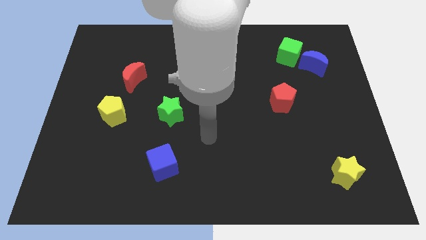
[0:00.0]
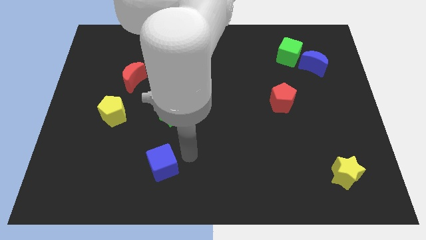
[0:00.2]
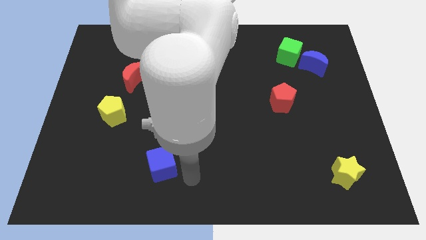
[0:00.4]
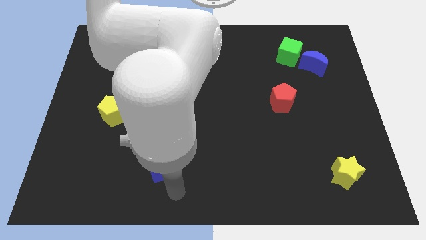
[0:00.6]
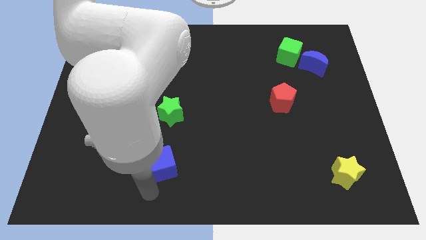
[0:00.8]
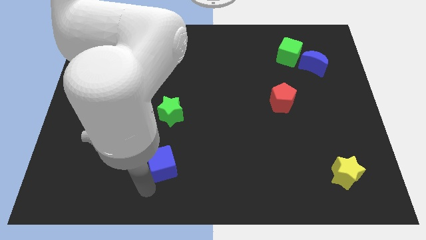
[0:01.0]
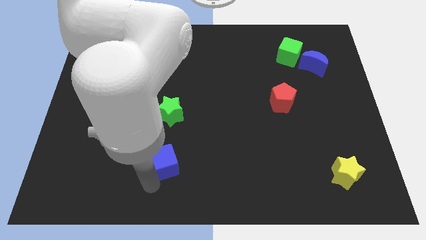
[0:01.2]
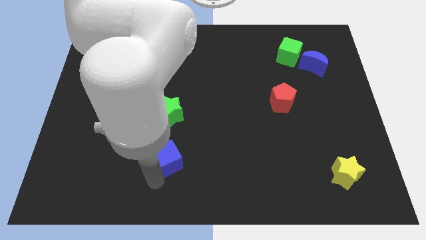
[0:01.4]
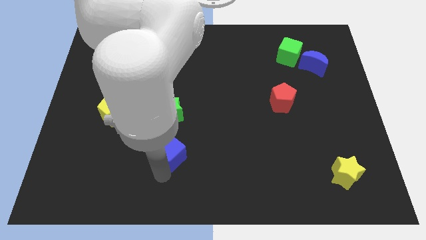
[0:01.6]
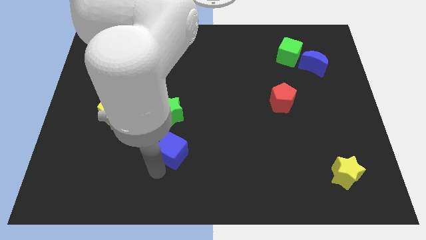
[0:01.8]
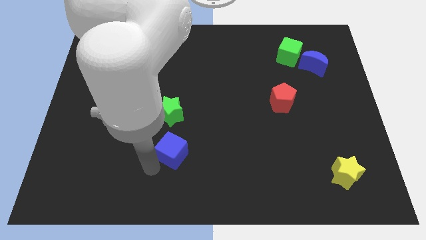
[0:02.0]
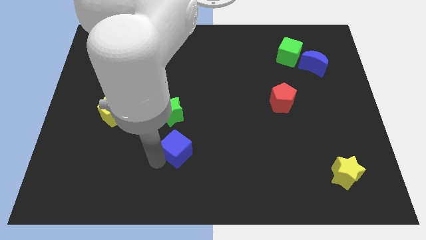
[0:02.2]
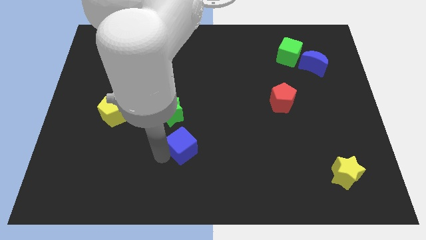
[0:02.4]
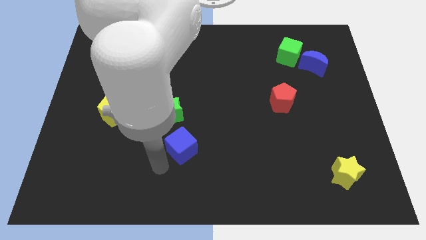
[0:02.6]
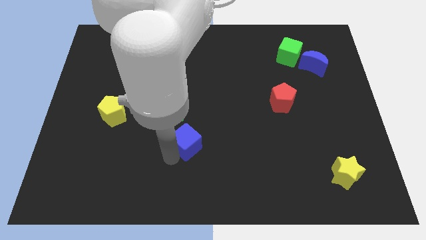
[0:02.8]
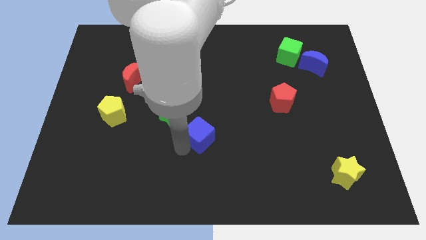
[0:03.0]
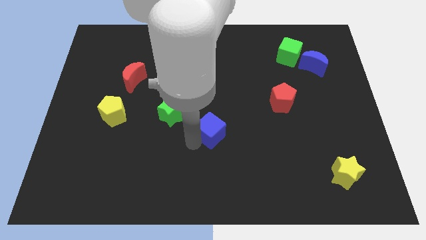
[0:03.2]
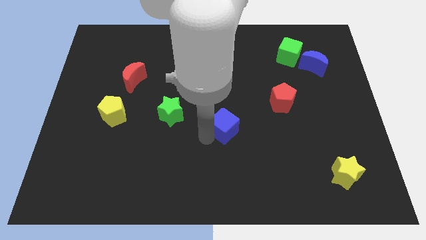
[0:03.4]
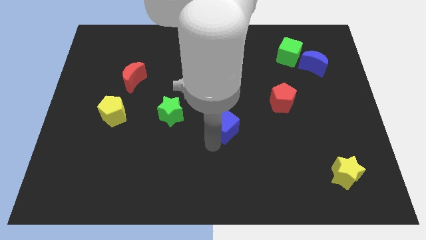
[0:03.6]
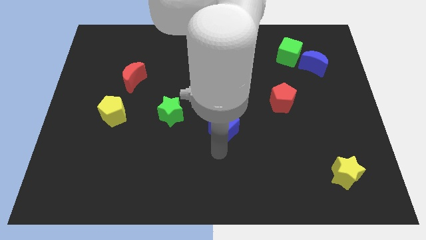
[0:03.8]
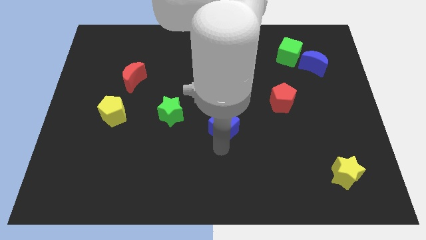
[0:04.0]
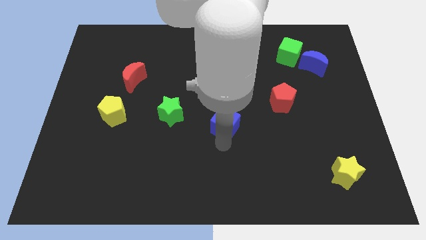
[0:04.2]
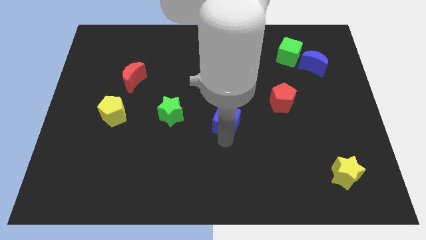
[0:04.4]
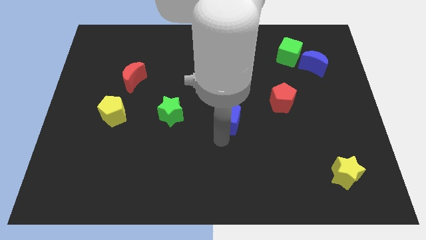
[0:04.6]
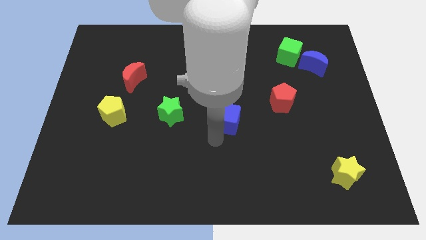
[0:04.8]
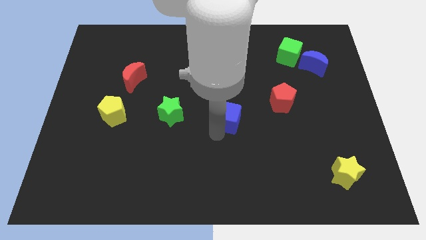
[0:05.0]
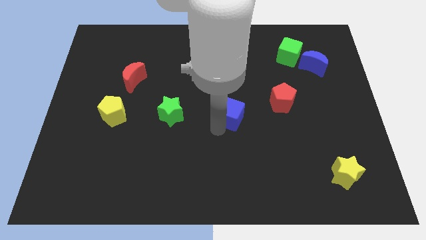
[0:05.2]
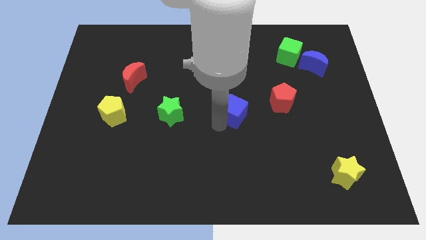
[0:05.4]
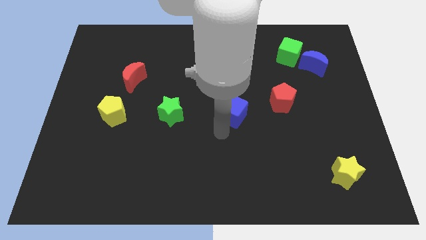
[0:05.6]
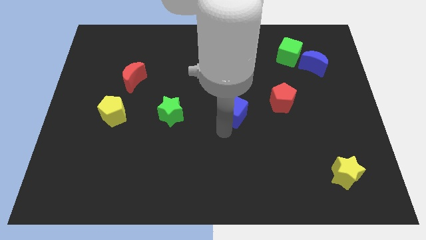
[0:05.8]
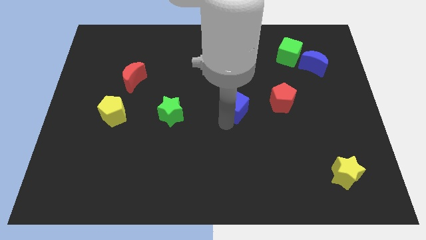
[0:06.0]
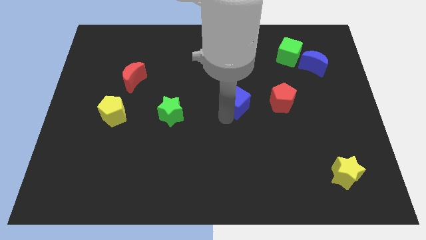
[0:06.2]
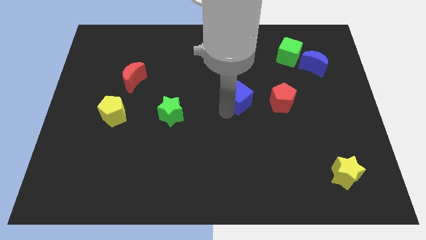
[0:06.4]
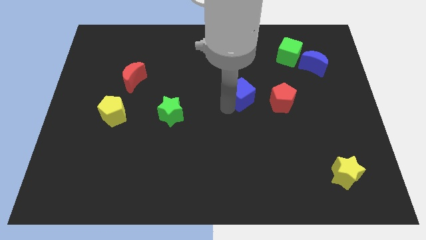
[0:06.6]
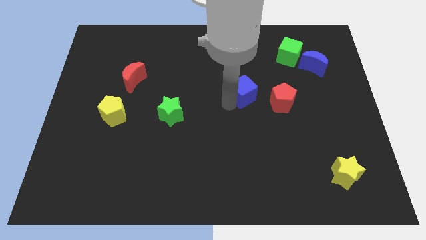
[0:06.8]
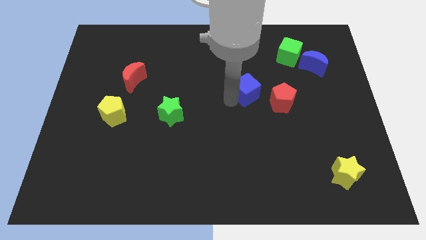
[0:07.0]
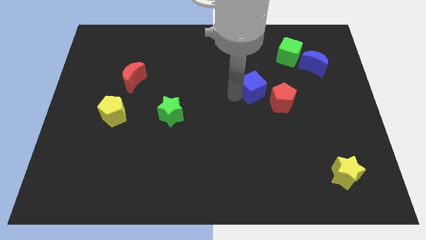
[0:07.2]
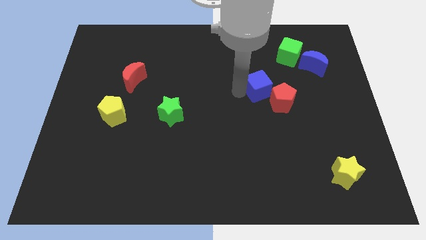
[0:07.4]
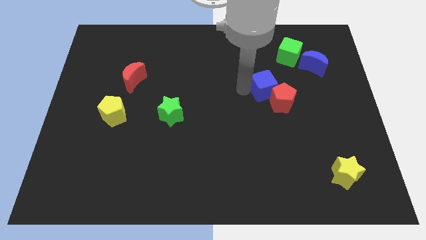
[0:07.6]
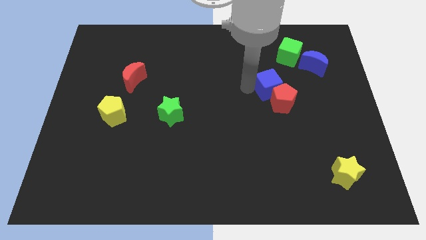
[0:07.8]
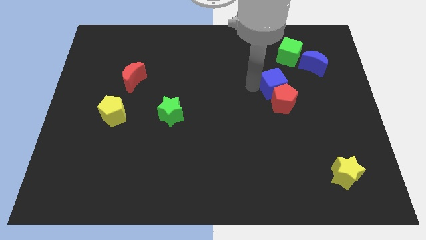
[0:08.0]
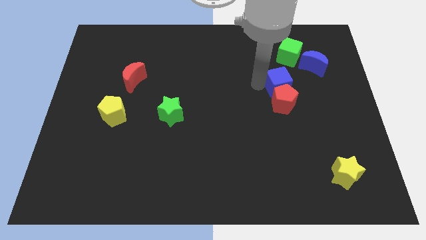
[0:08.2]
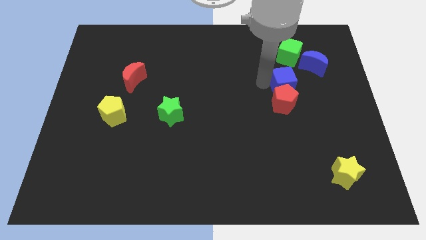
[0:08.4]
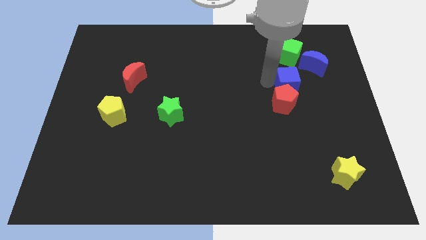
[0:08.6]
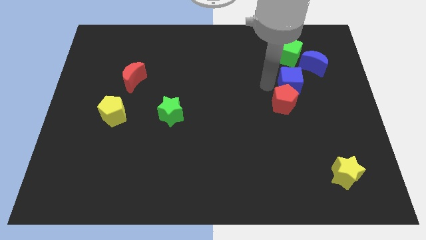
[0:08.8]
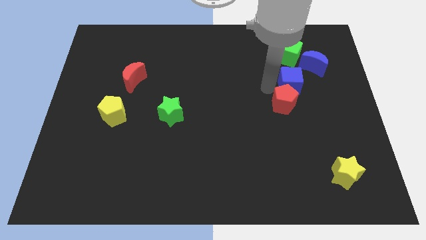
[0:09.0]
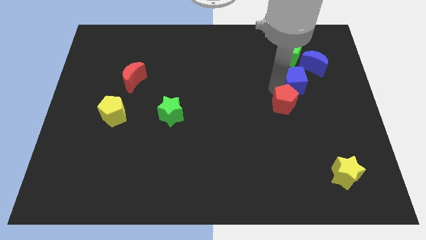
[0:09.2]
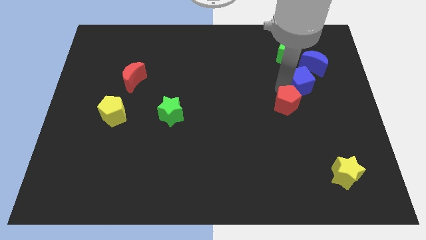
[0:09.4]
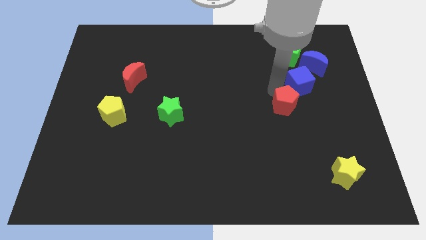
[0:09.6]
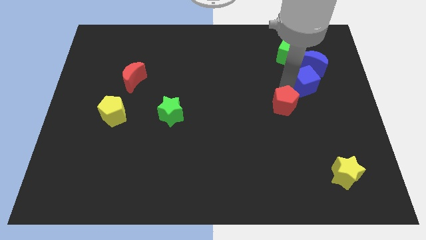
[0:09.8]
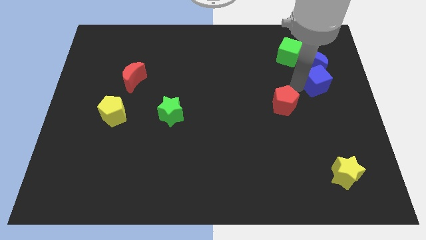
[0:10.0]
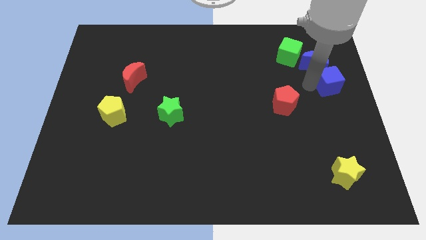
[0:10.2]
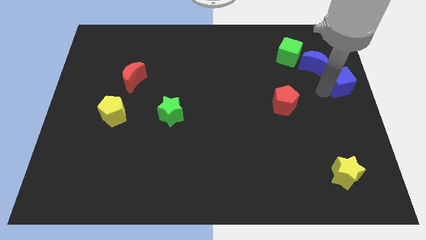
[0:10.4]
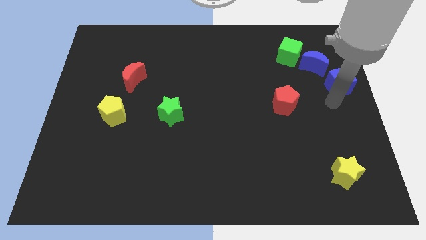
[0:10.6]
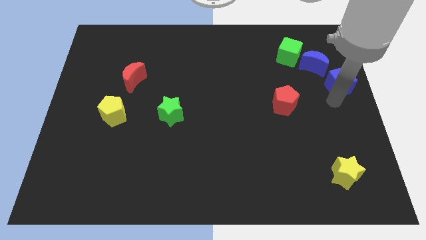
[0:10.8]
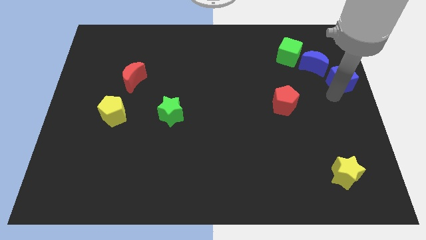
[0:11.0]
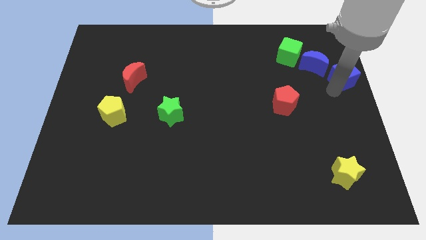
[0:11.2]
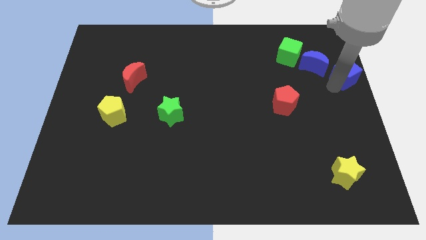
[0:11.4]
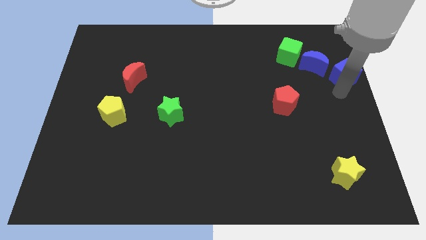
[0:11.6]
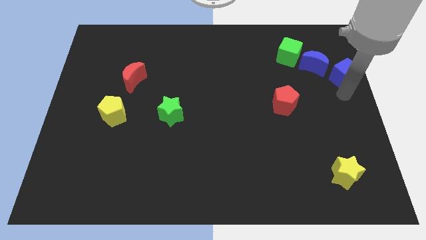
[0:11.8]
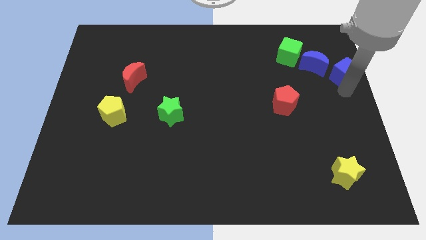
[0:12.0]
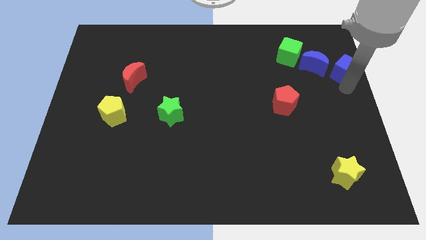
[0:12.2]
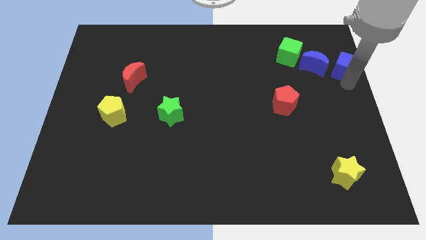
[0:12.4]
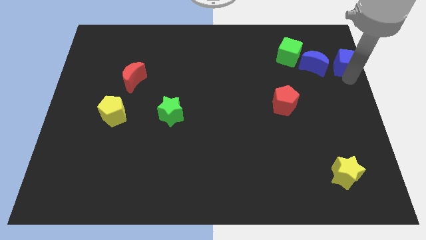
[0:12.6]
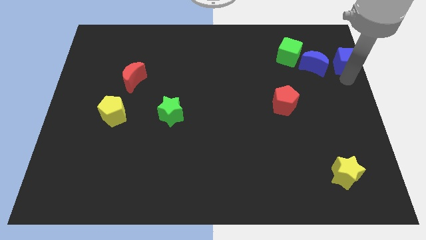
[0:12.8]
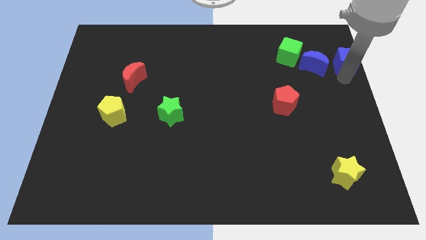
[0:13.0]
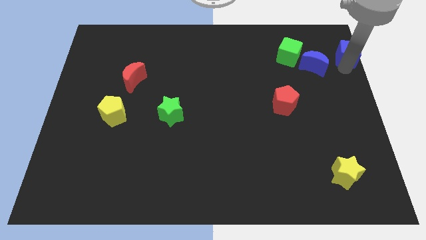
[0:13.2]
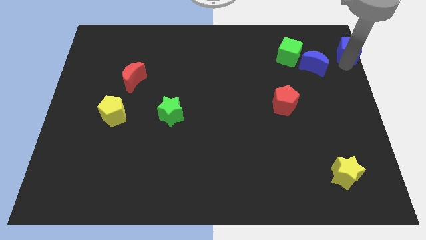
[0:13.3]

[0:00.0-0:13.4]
move the blue cube to the top right corner
